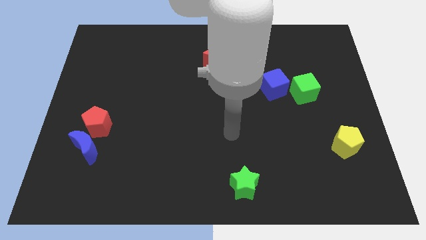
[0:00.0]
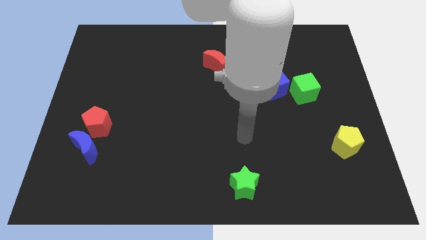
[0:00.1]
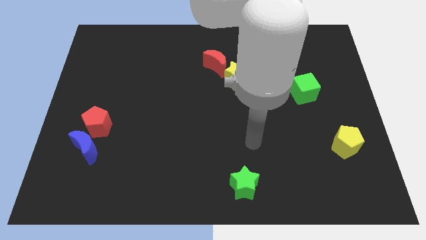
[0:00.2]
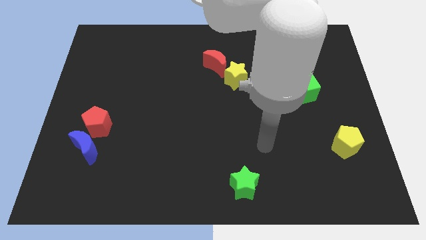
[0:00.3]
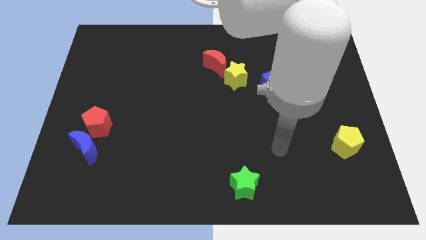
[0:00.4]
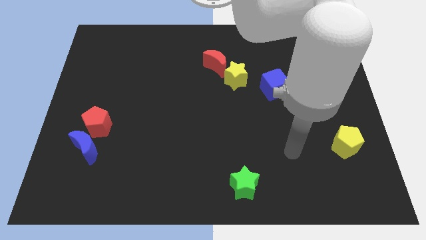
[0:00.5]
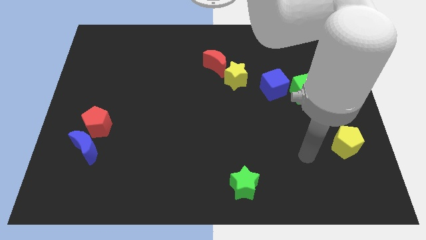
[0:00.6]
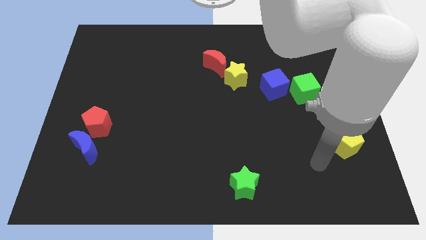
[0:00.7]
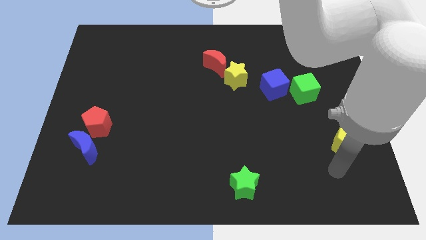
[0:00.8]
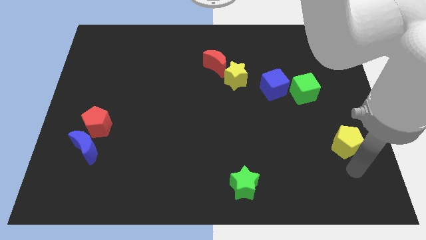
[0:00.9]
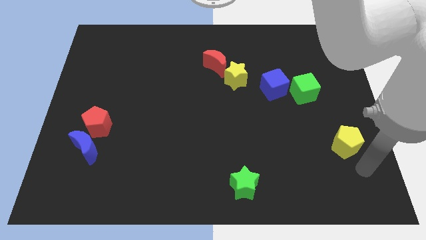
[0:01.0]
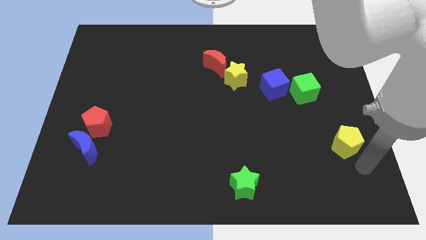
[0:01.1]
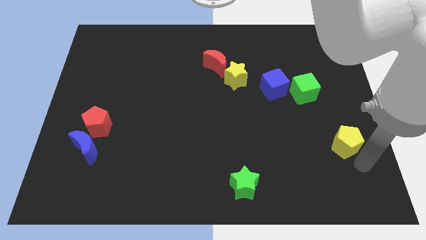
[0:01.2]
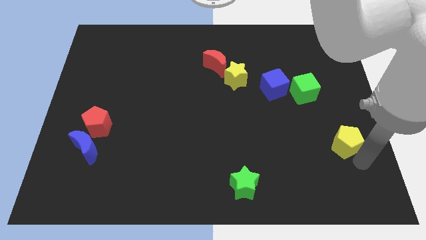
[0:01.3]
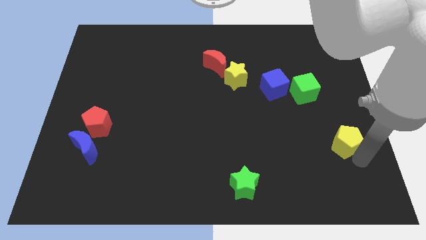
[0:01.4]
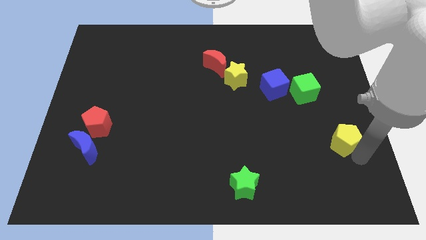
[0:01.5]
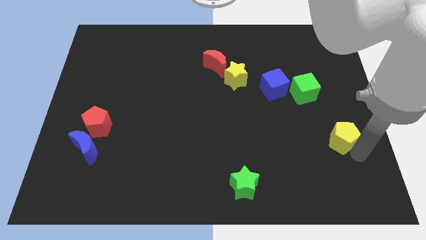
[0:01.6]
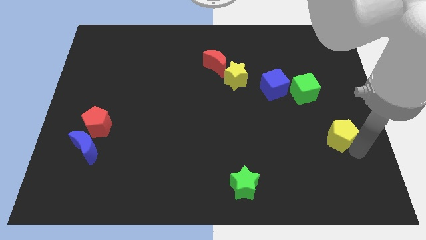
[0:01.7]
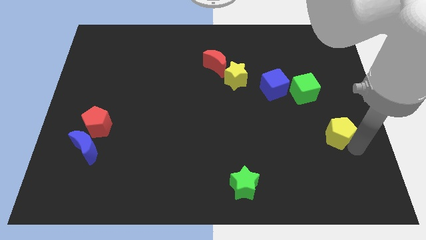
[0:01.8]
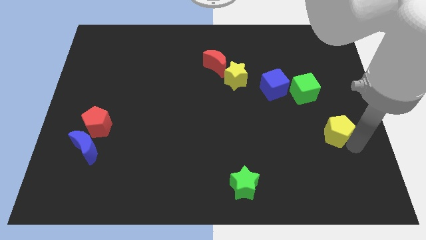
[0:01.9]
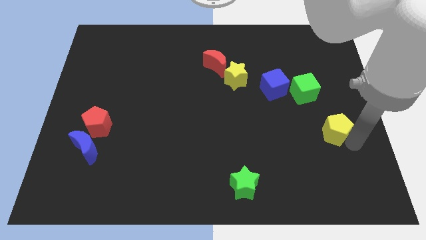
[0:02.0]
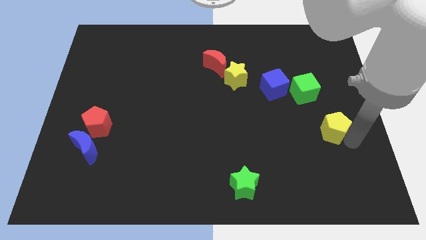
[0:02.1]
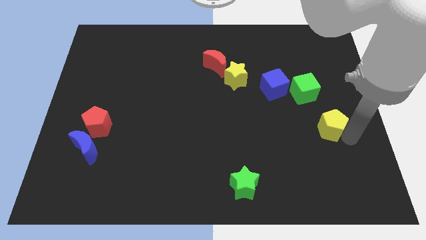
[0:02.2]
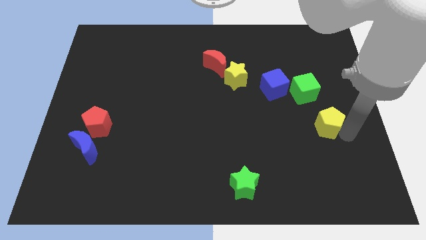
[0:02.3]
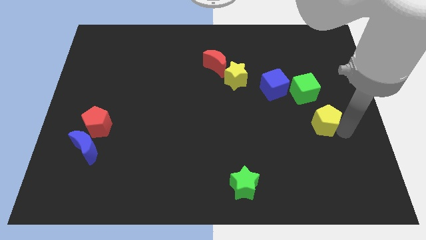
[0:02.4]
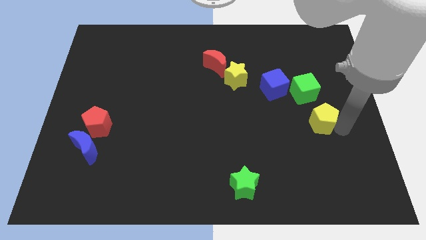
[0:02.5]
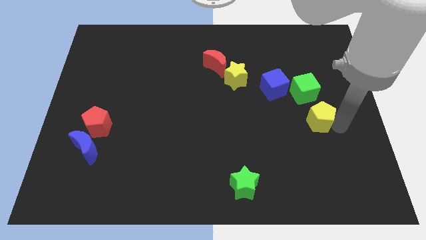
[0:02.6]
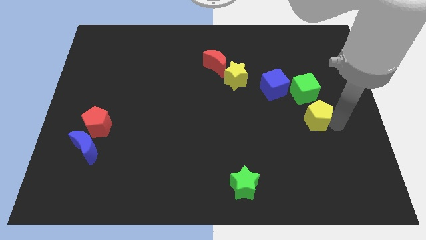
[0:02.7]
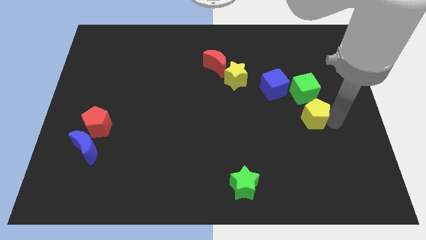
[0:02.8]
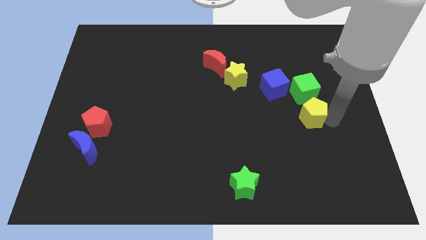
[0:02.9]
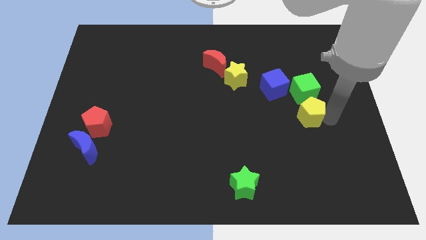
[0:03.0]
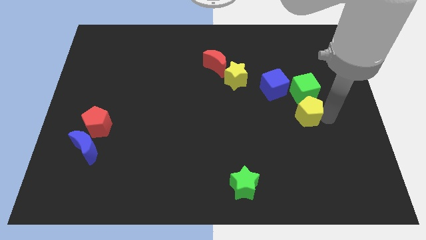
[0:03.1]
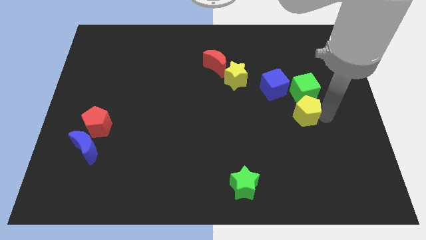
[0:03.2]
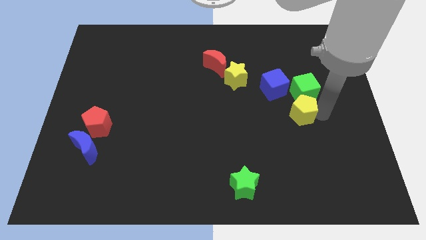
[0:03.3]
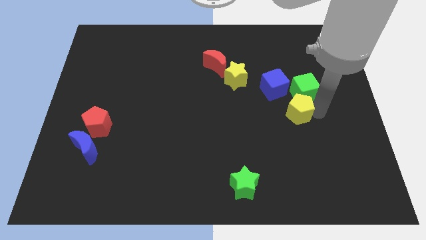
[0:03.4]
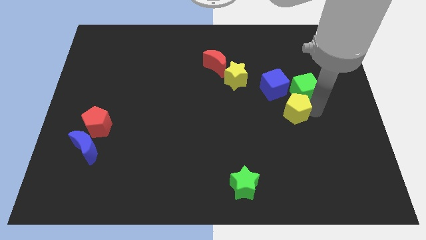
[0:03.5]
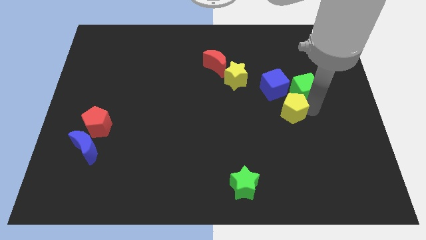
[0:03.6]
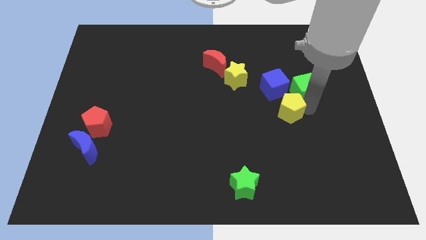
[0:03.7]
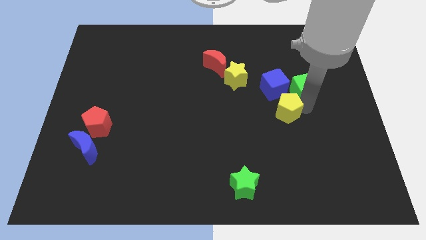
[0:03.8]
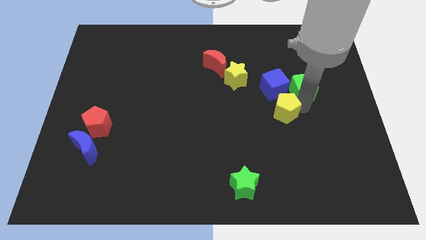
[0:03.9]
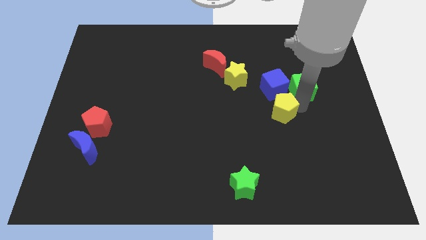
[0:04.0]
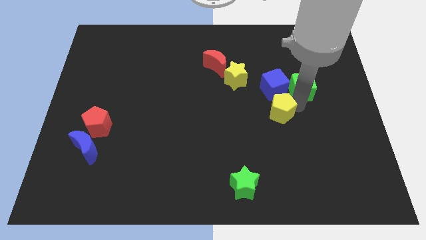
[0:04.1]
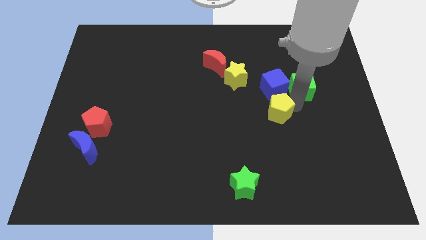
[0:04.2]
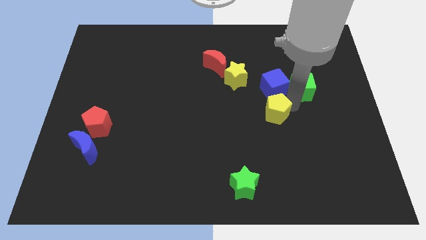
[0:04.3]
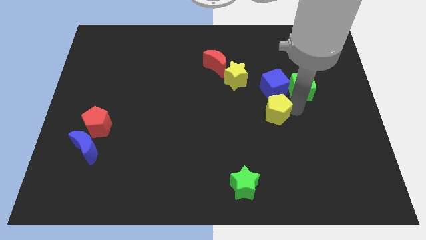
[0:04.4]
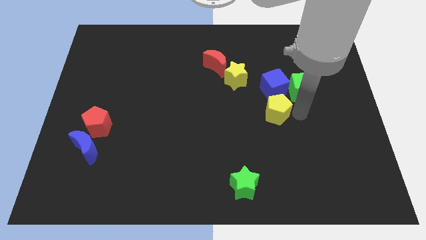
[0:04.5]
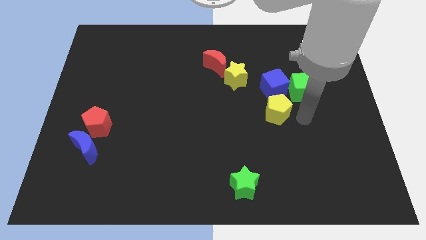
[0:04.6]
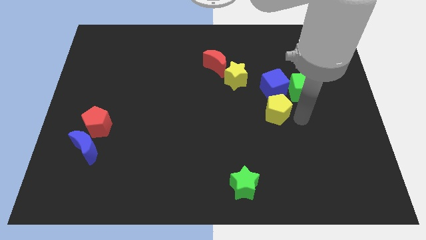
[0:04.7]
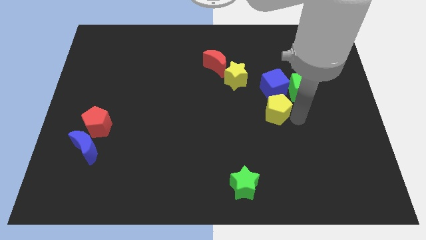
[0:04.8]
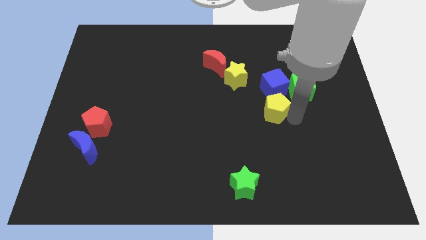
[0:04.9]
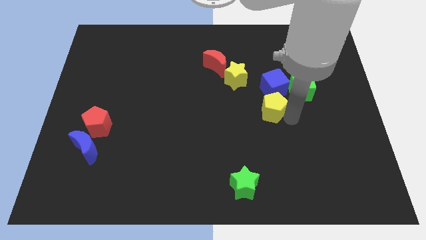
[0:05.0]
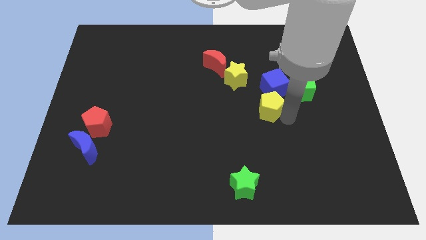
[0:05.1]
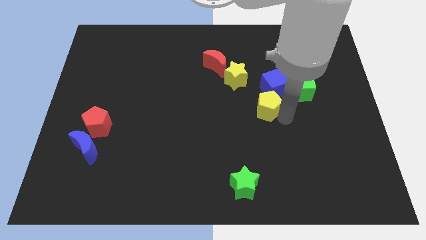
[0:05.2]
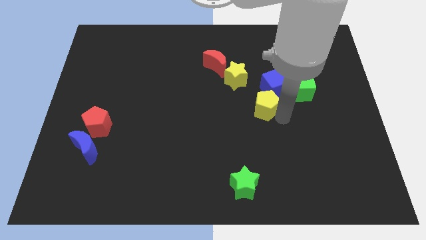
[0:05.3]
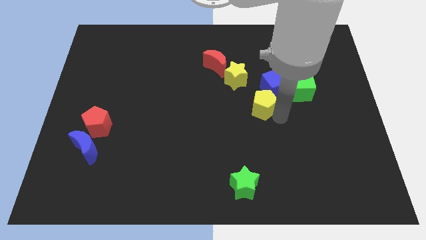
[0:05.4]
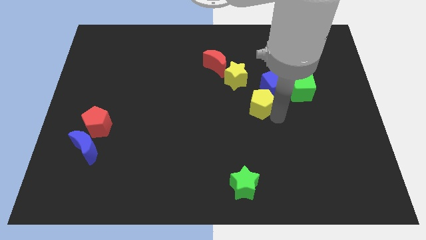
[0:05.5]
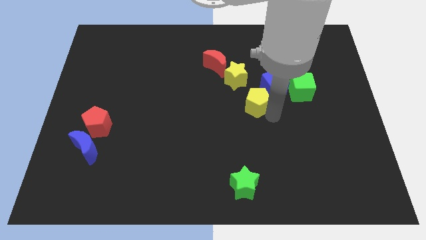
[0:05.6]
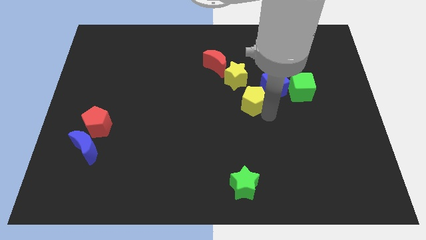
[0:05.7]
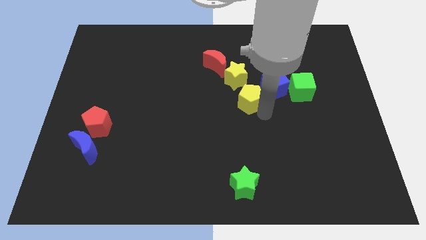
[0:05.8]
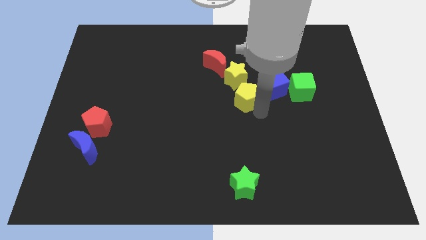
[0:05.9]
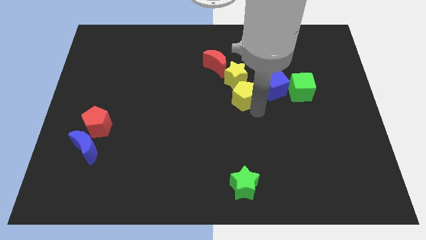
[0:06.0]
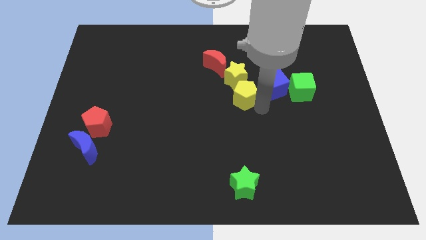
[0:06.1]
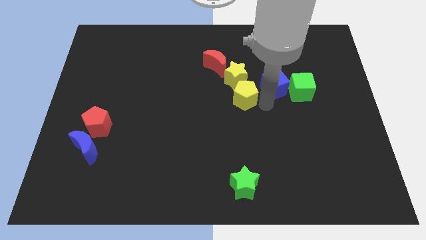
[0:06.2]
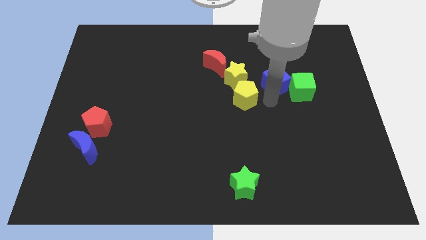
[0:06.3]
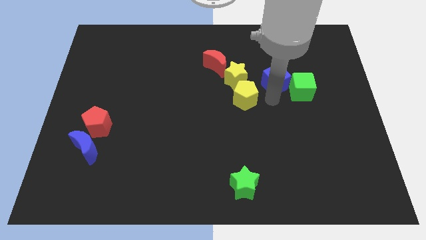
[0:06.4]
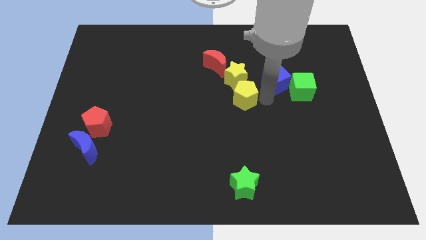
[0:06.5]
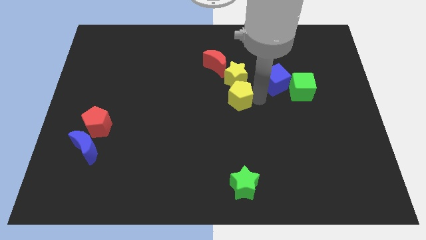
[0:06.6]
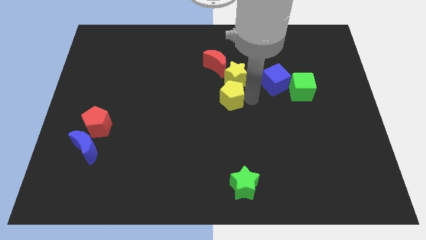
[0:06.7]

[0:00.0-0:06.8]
move the yellow pentagon below the red moon

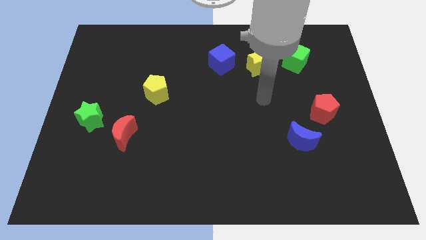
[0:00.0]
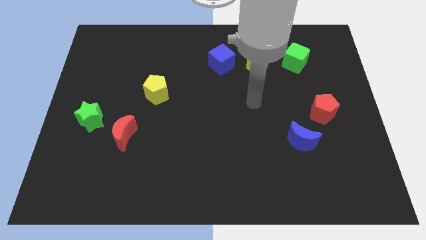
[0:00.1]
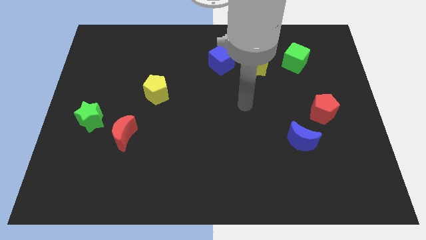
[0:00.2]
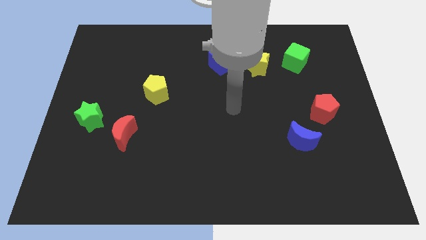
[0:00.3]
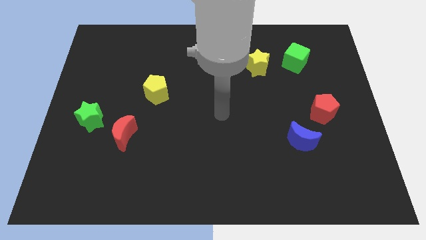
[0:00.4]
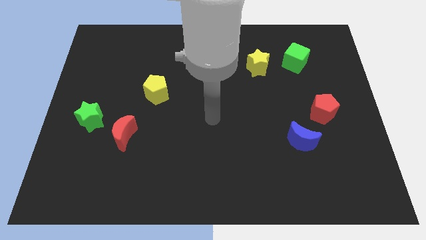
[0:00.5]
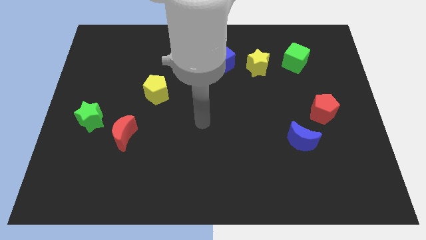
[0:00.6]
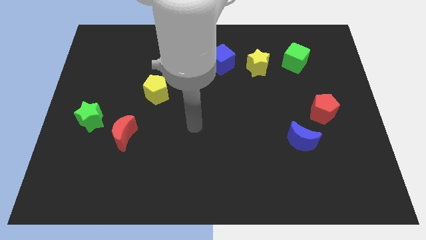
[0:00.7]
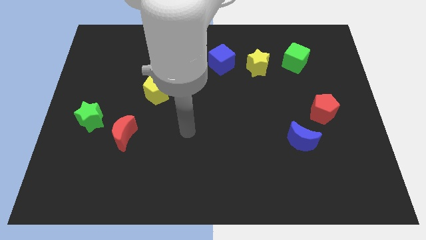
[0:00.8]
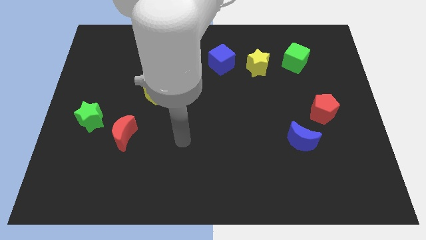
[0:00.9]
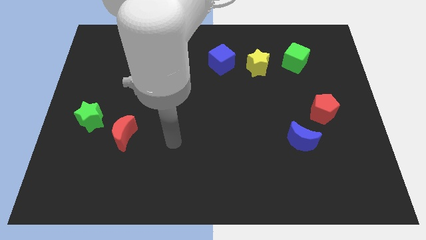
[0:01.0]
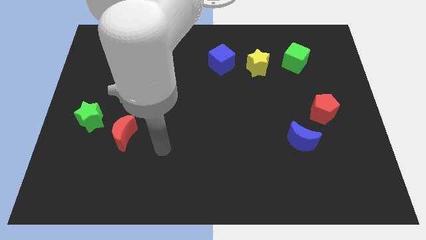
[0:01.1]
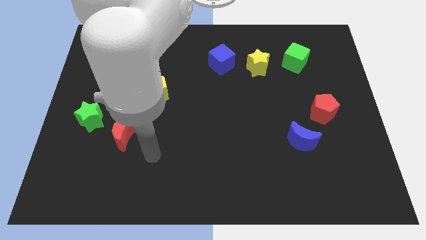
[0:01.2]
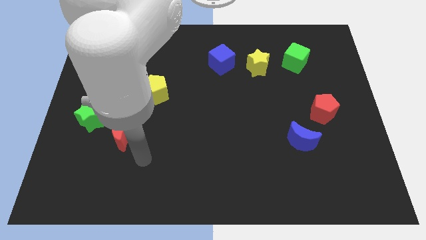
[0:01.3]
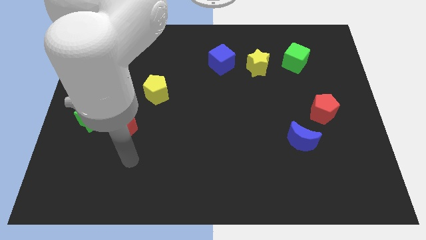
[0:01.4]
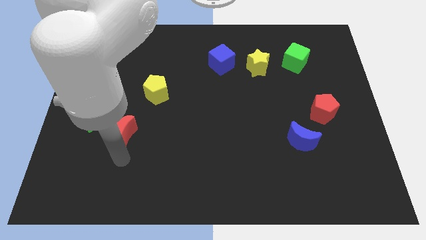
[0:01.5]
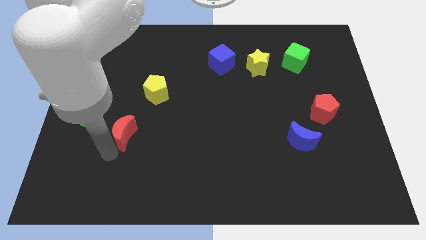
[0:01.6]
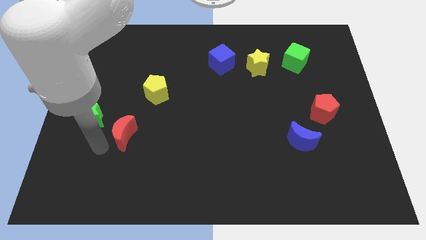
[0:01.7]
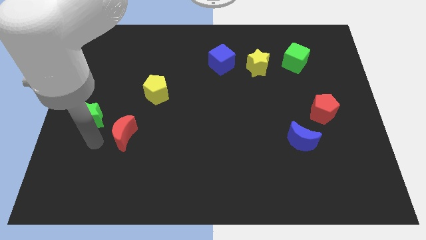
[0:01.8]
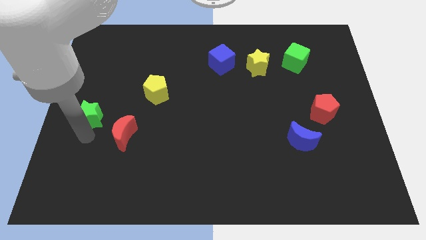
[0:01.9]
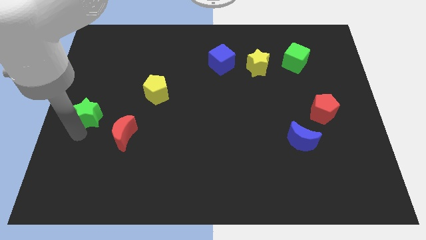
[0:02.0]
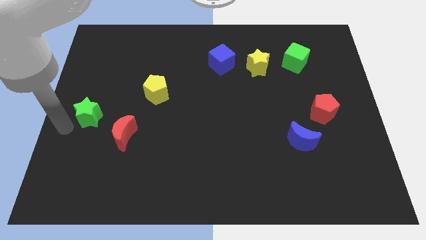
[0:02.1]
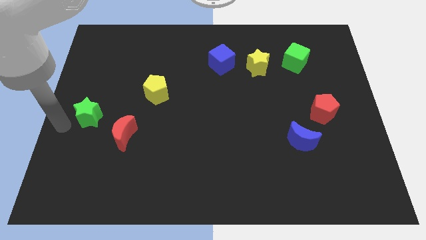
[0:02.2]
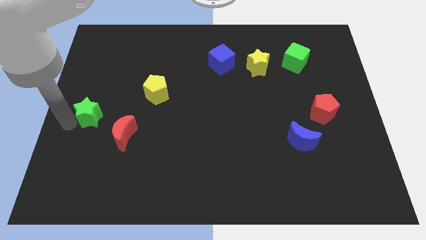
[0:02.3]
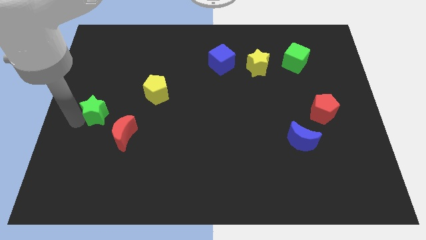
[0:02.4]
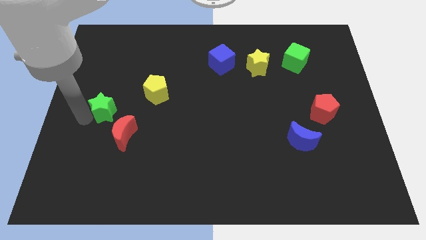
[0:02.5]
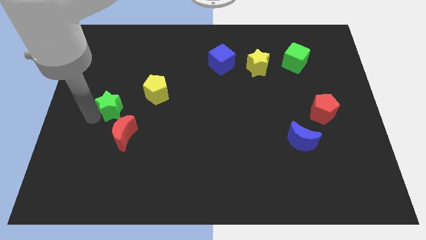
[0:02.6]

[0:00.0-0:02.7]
slide the green star to the left side of the yellow pentagon
